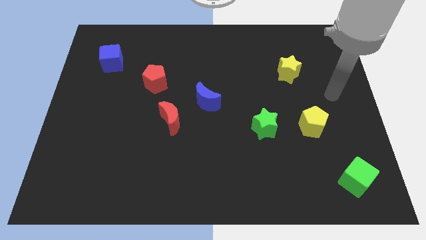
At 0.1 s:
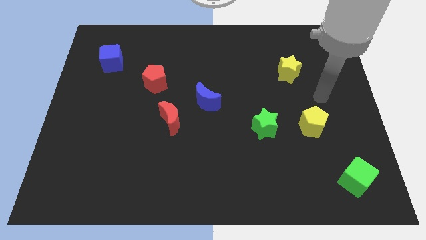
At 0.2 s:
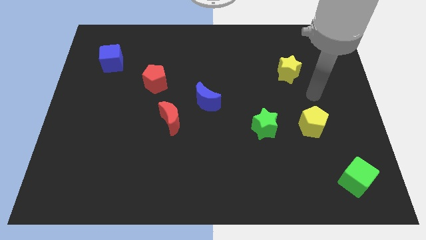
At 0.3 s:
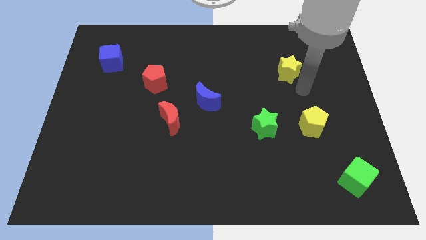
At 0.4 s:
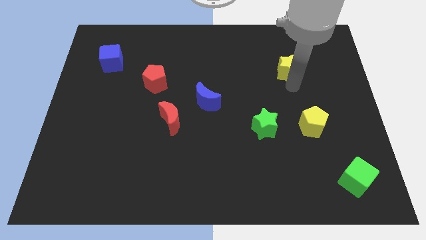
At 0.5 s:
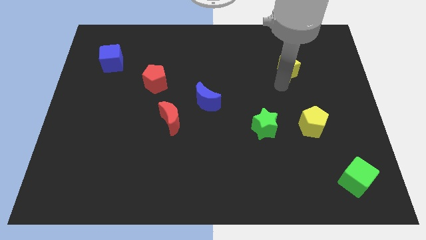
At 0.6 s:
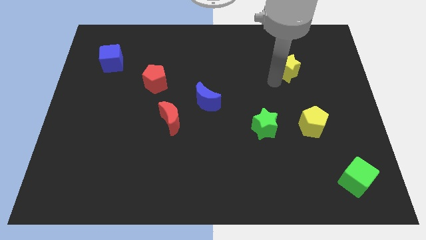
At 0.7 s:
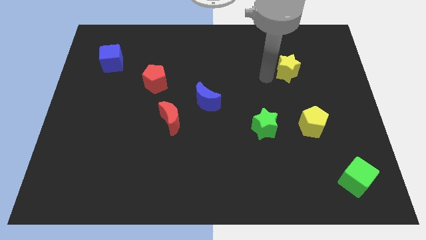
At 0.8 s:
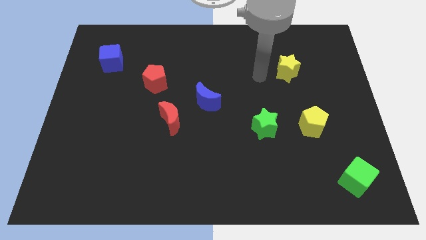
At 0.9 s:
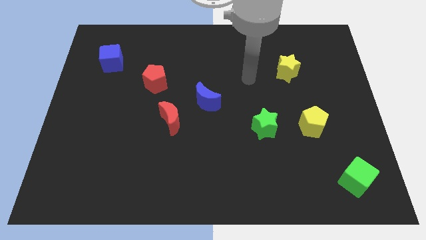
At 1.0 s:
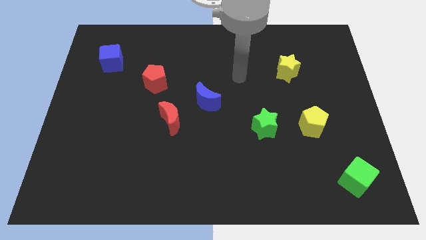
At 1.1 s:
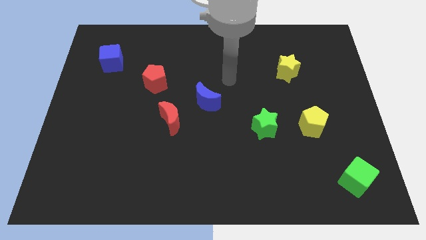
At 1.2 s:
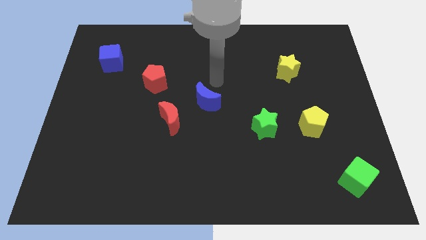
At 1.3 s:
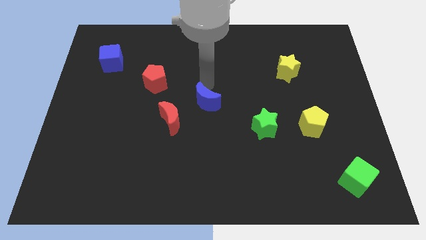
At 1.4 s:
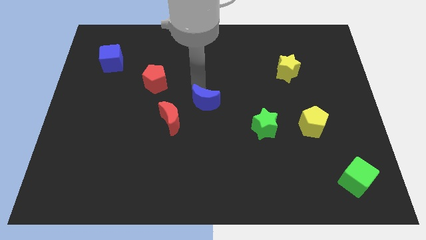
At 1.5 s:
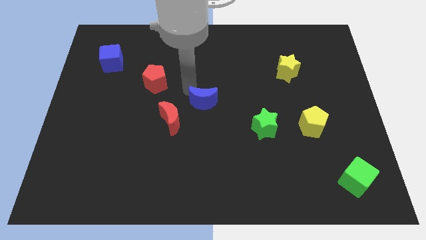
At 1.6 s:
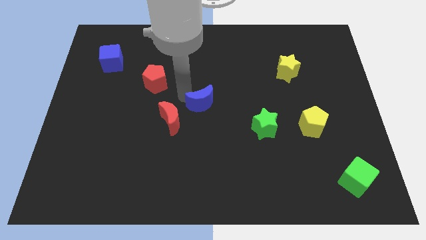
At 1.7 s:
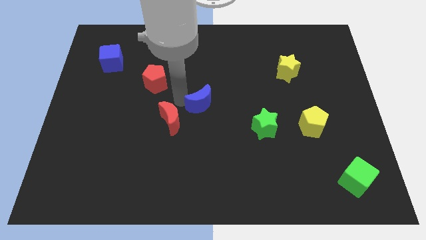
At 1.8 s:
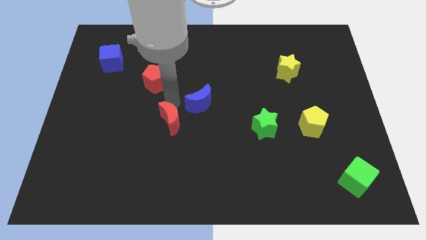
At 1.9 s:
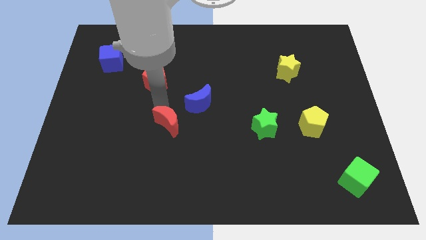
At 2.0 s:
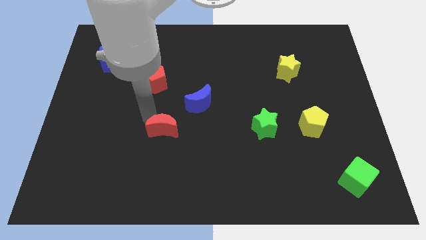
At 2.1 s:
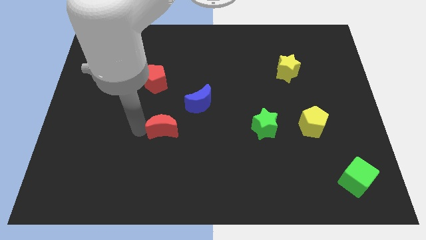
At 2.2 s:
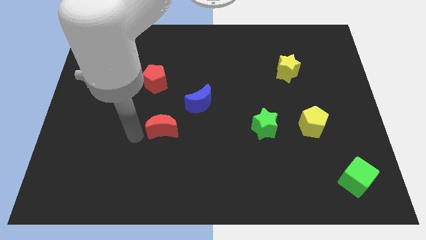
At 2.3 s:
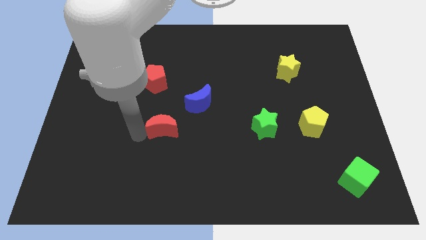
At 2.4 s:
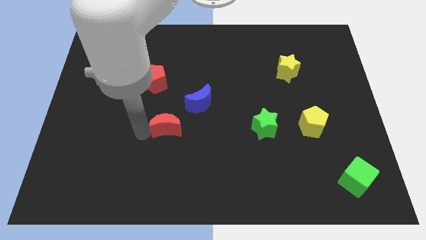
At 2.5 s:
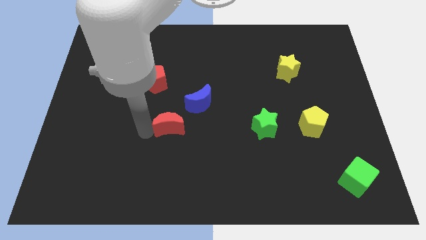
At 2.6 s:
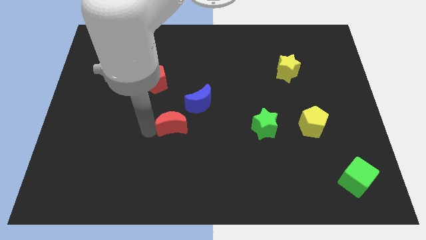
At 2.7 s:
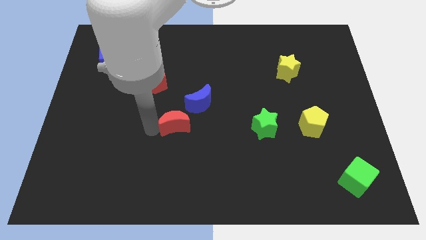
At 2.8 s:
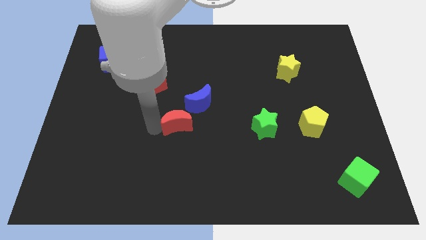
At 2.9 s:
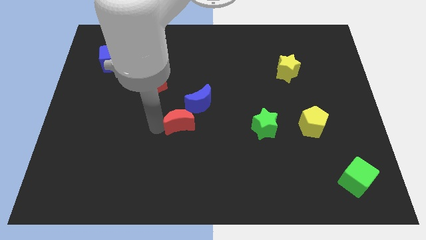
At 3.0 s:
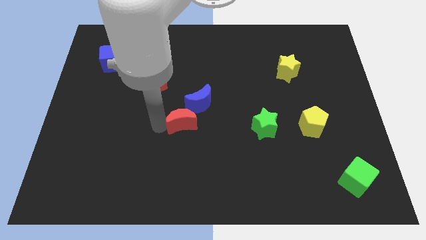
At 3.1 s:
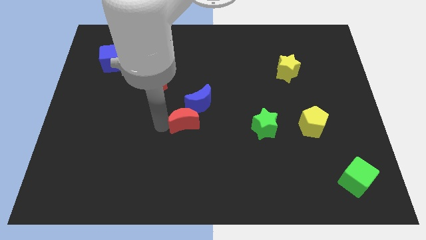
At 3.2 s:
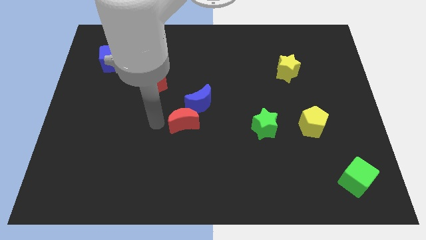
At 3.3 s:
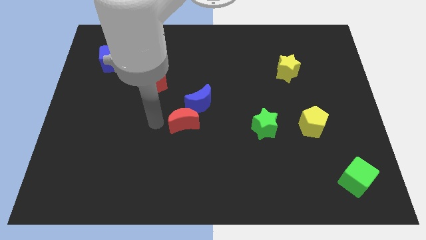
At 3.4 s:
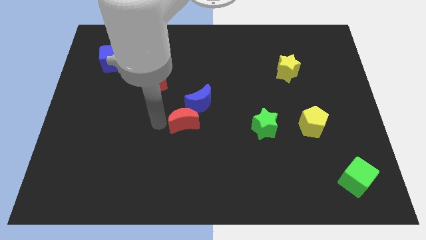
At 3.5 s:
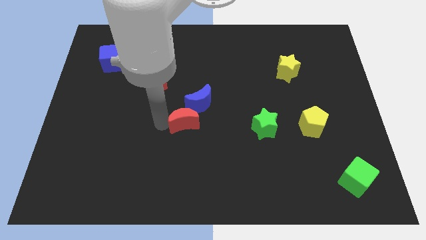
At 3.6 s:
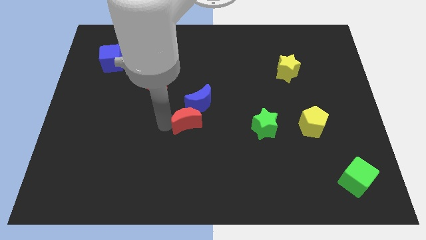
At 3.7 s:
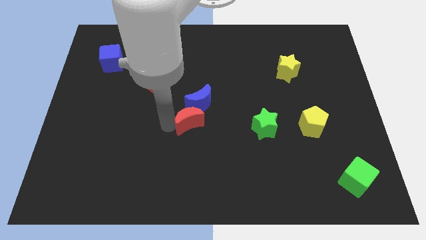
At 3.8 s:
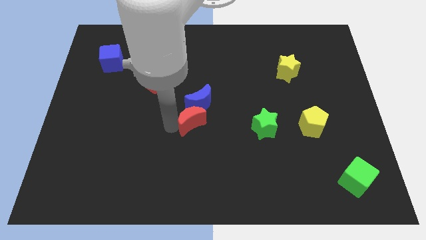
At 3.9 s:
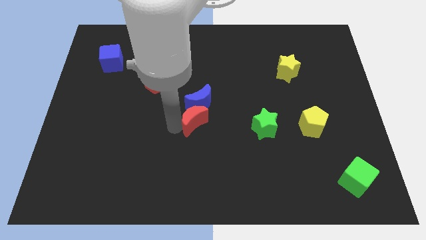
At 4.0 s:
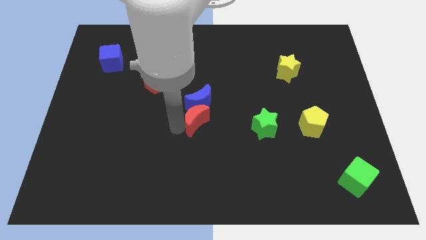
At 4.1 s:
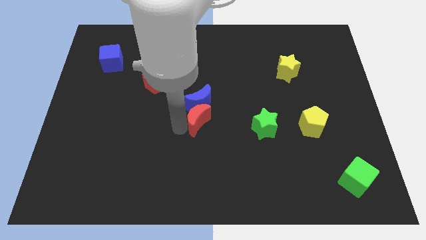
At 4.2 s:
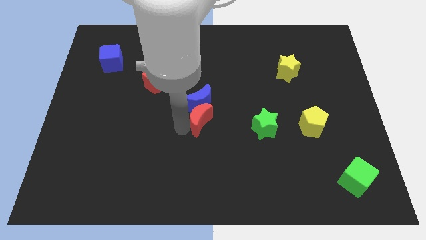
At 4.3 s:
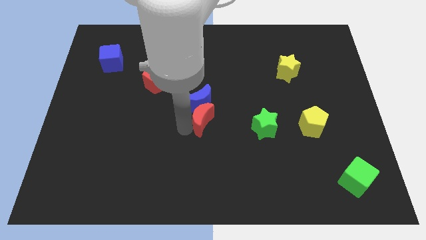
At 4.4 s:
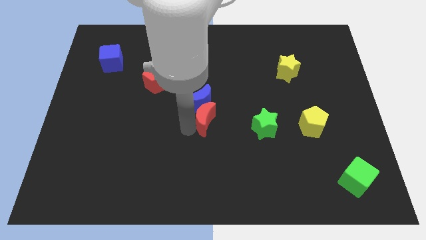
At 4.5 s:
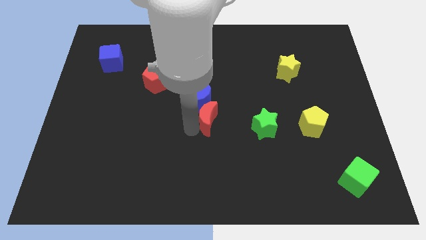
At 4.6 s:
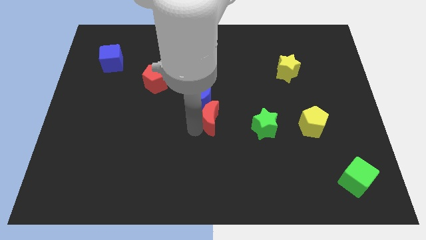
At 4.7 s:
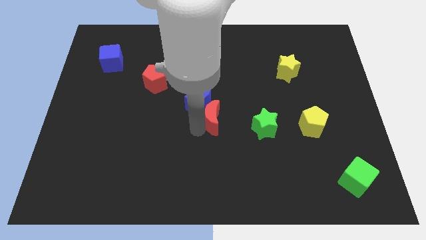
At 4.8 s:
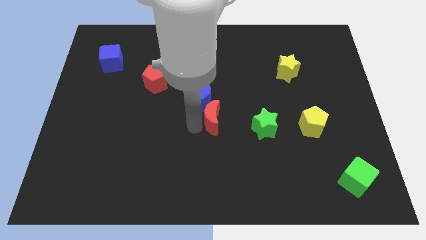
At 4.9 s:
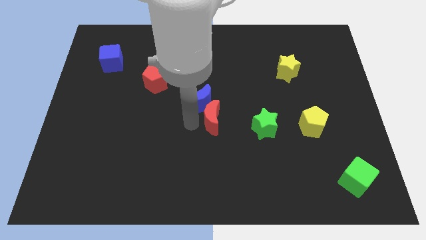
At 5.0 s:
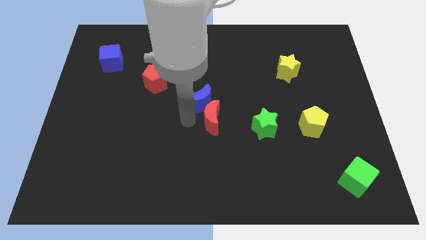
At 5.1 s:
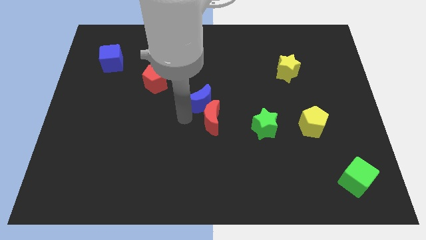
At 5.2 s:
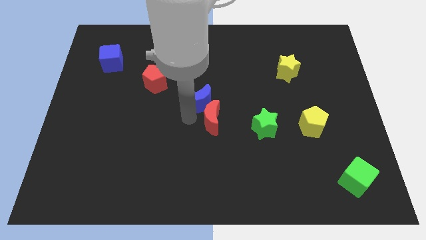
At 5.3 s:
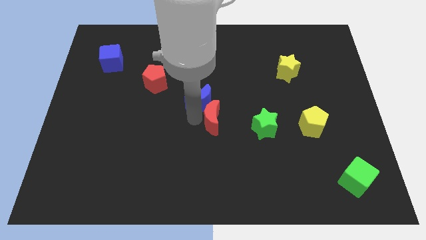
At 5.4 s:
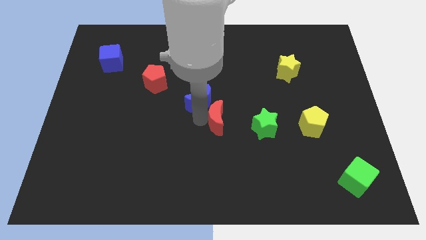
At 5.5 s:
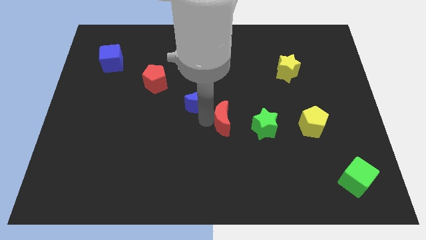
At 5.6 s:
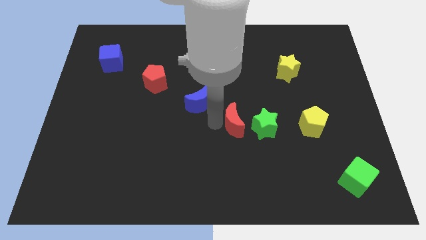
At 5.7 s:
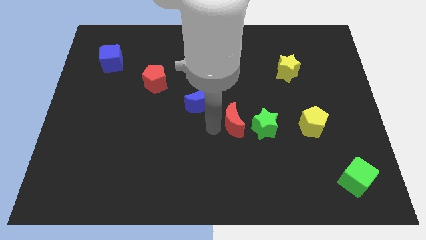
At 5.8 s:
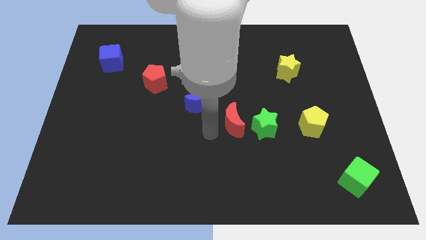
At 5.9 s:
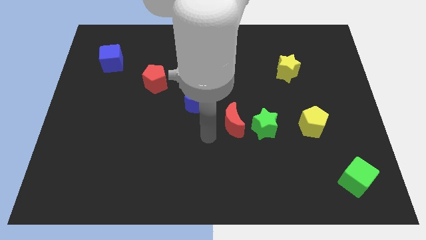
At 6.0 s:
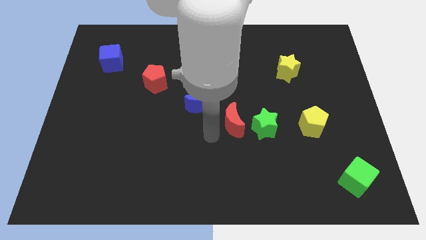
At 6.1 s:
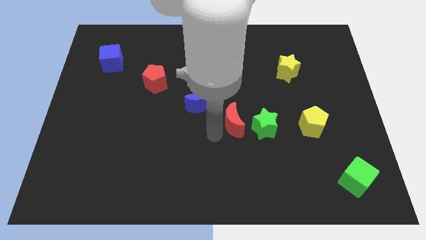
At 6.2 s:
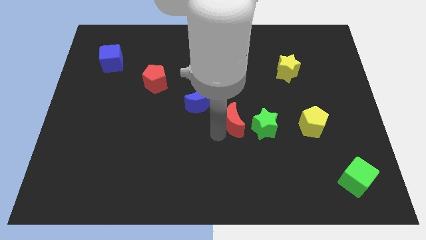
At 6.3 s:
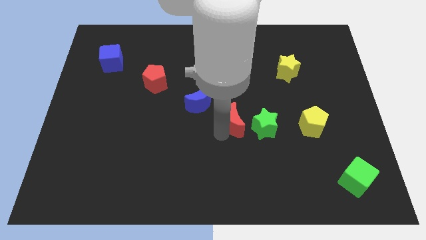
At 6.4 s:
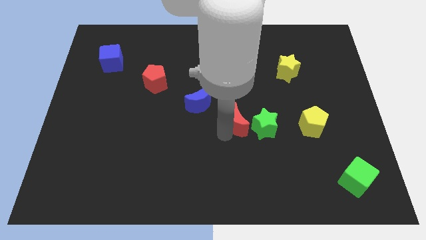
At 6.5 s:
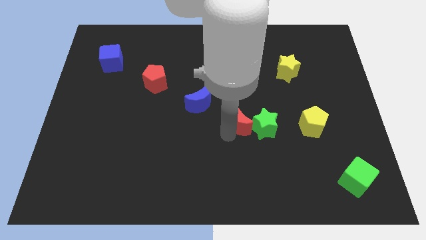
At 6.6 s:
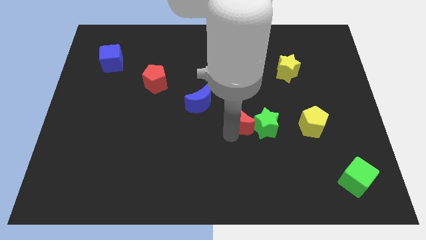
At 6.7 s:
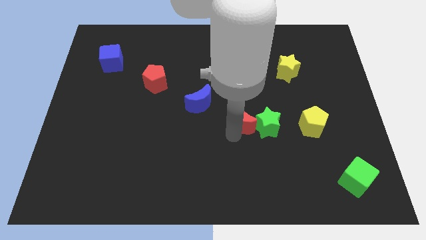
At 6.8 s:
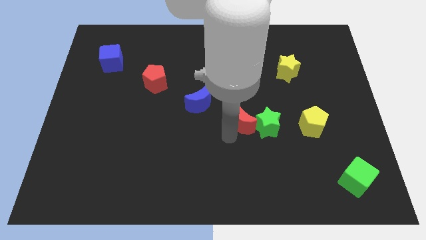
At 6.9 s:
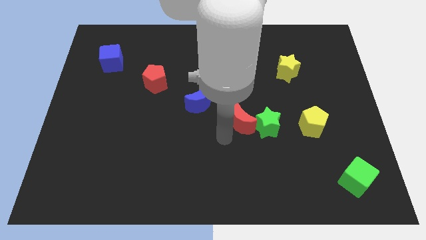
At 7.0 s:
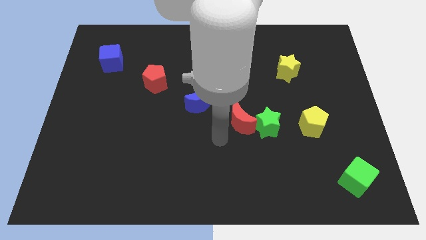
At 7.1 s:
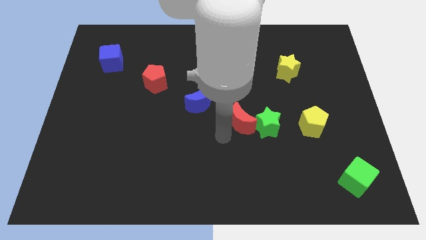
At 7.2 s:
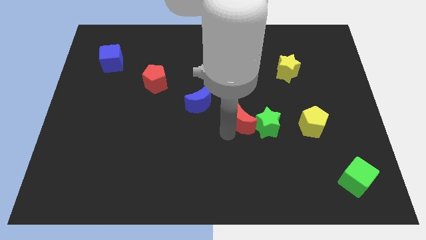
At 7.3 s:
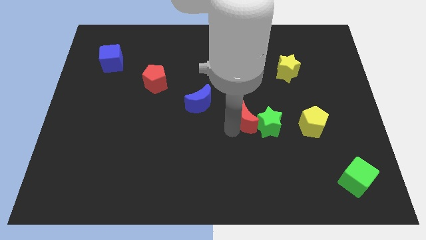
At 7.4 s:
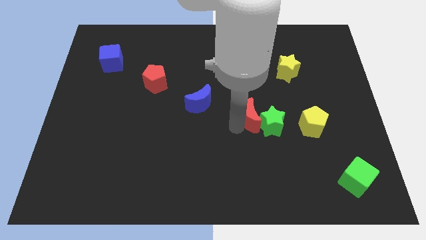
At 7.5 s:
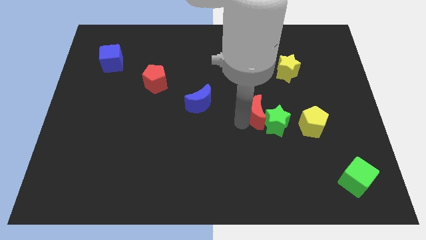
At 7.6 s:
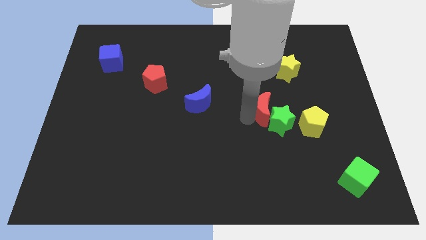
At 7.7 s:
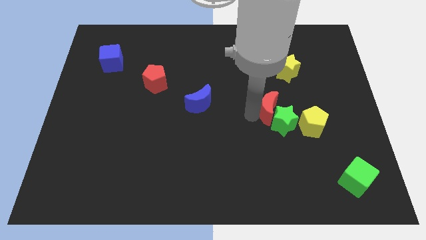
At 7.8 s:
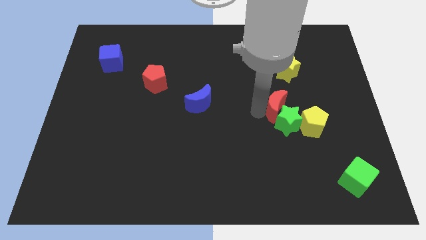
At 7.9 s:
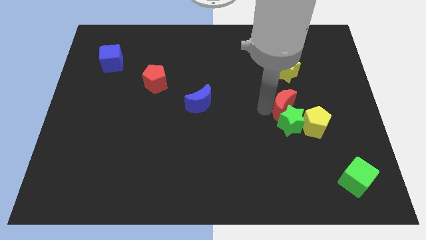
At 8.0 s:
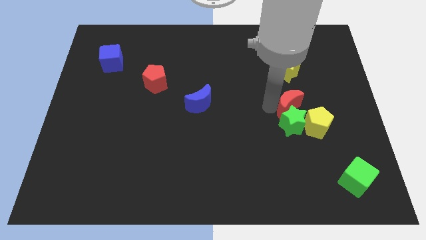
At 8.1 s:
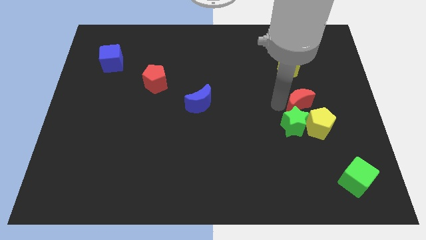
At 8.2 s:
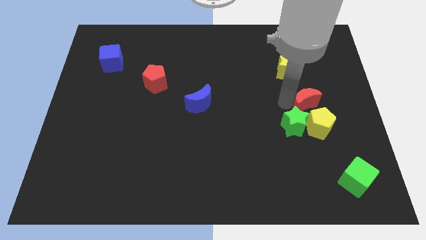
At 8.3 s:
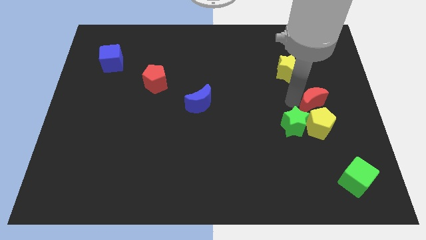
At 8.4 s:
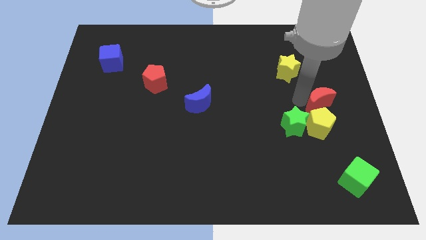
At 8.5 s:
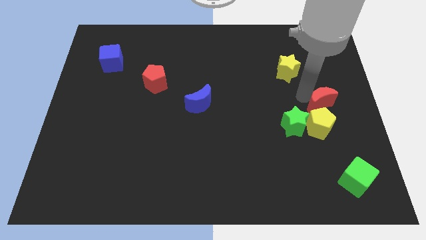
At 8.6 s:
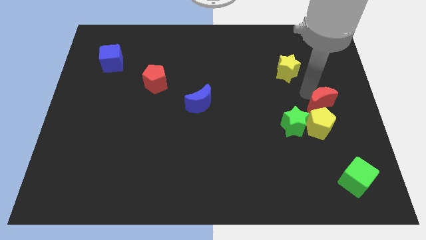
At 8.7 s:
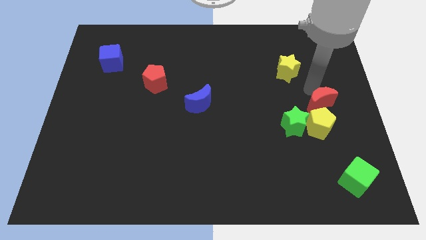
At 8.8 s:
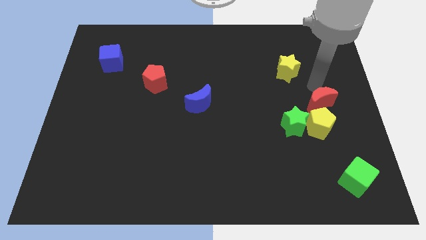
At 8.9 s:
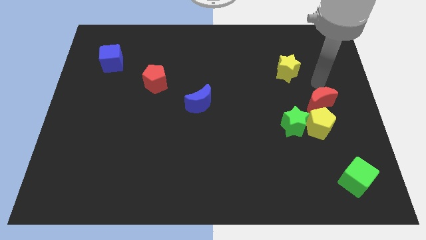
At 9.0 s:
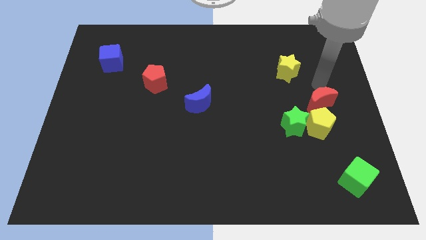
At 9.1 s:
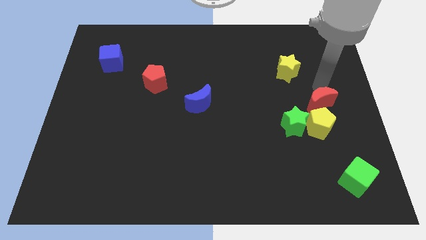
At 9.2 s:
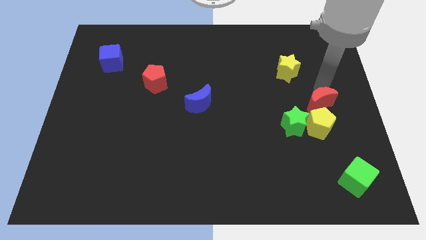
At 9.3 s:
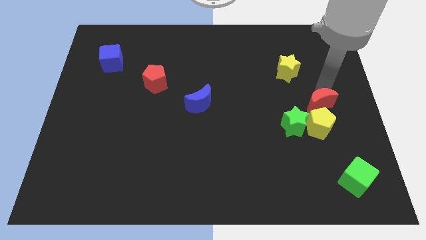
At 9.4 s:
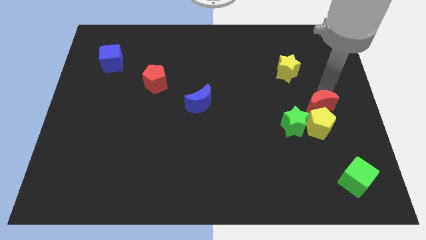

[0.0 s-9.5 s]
put the red moon next to the yellow pentagon
